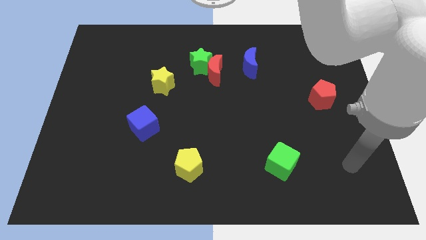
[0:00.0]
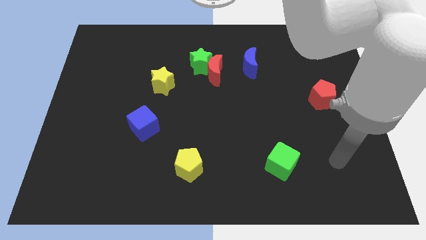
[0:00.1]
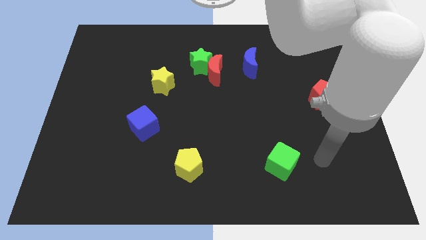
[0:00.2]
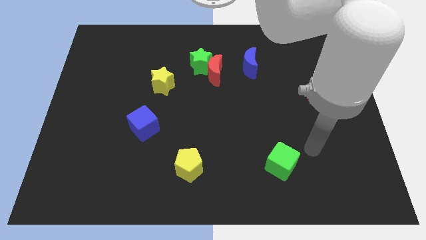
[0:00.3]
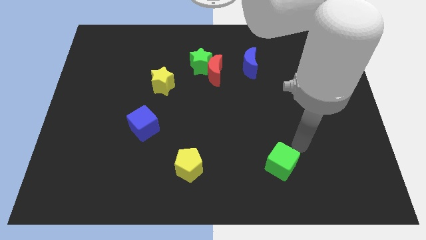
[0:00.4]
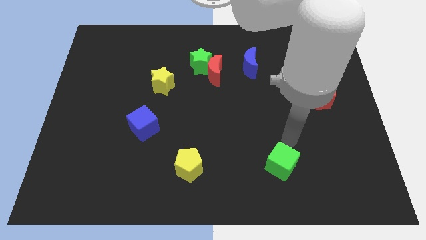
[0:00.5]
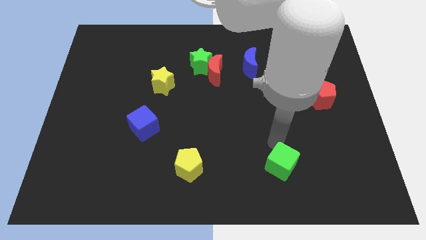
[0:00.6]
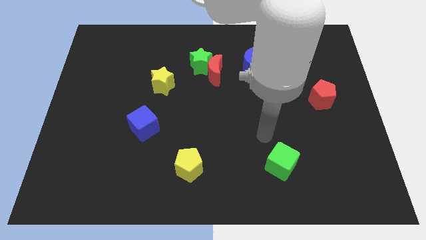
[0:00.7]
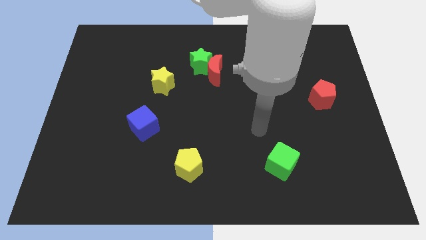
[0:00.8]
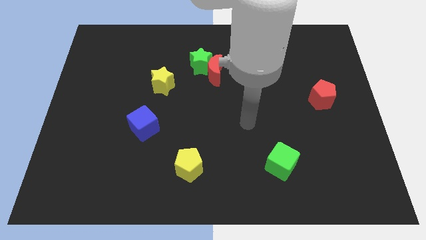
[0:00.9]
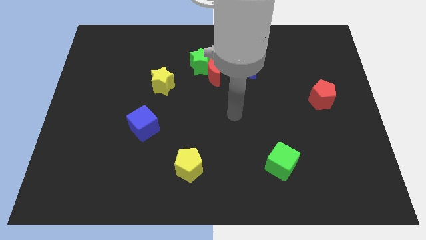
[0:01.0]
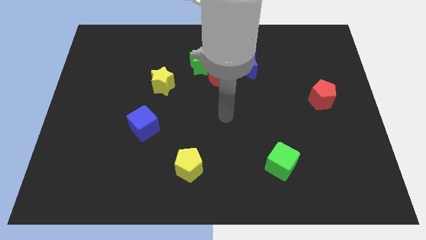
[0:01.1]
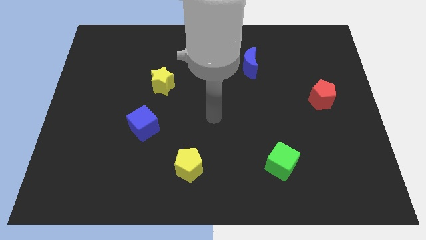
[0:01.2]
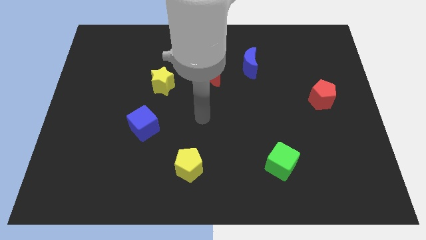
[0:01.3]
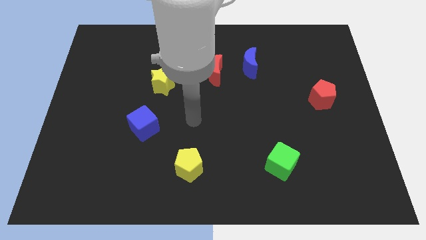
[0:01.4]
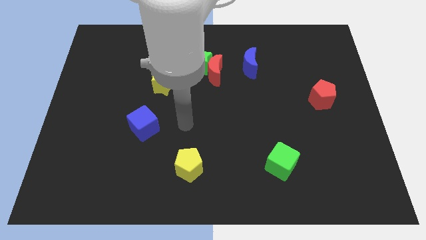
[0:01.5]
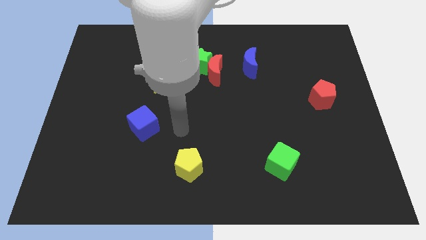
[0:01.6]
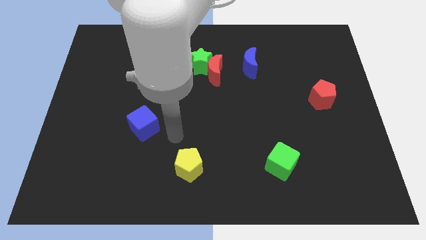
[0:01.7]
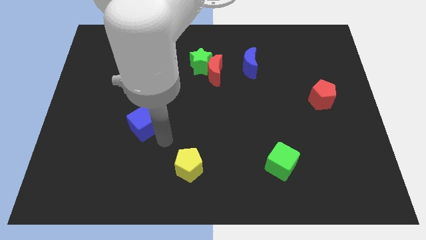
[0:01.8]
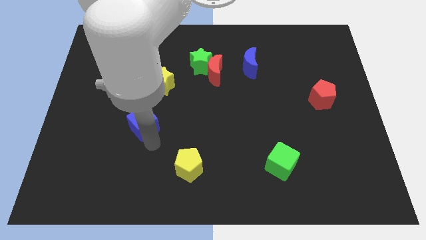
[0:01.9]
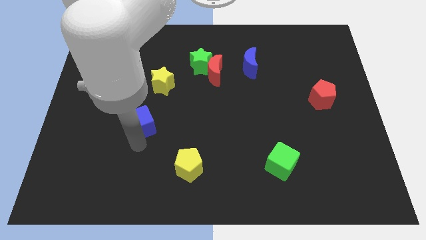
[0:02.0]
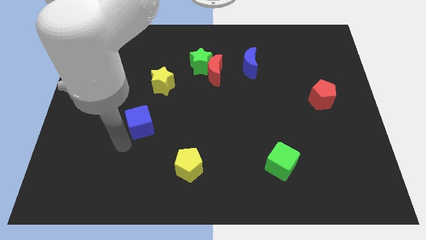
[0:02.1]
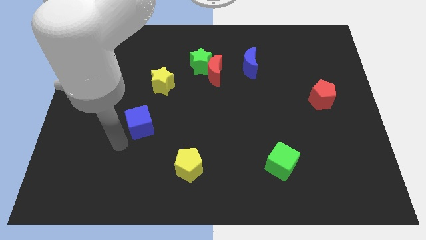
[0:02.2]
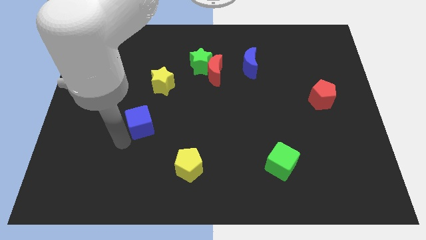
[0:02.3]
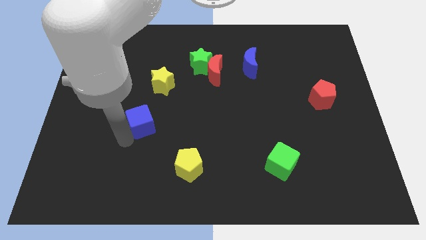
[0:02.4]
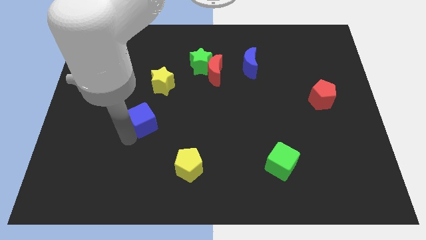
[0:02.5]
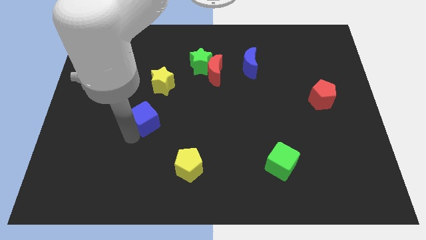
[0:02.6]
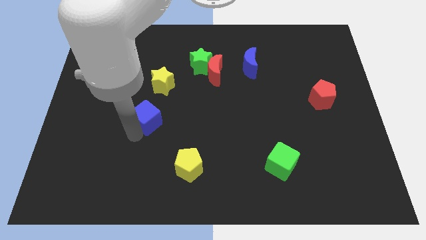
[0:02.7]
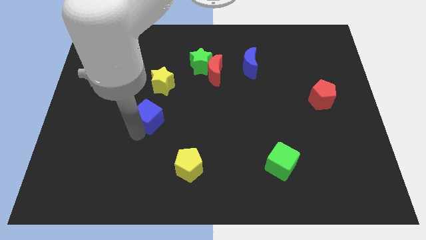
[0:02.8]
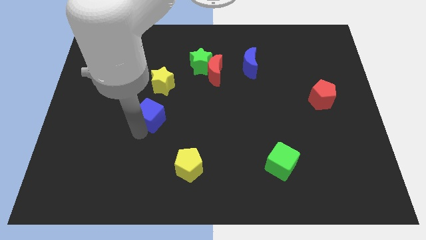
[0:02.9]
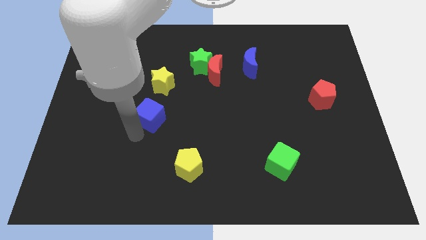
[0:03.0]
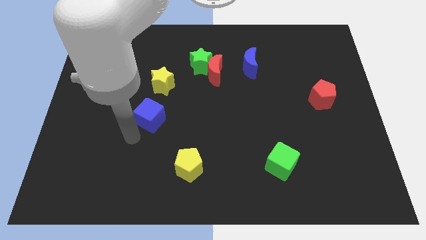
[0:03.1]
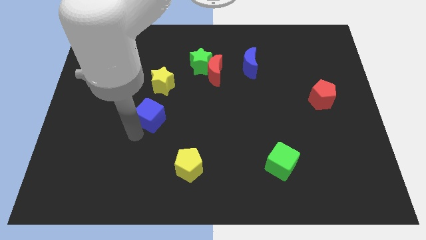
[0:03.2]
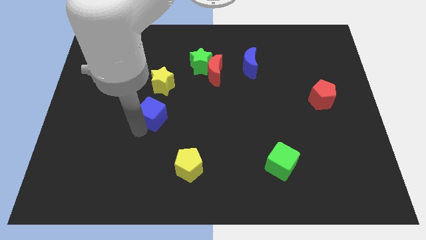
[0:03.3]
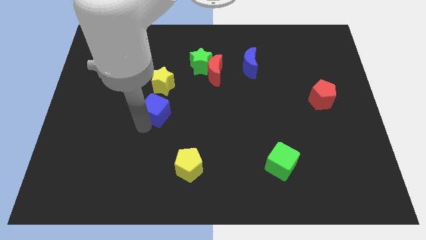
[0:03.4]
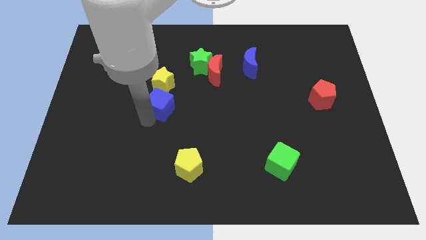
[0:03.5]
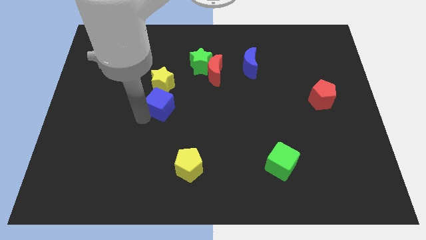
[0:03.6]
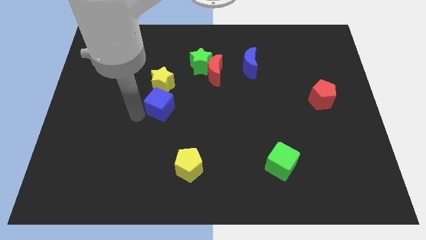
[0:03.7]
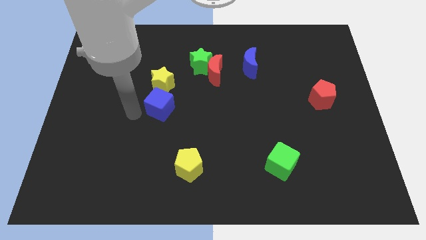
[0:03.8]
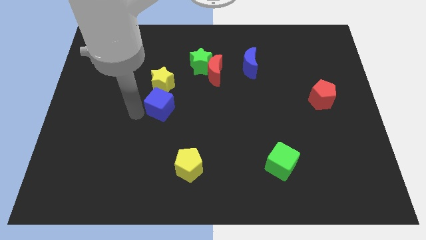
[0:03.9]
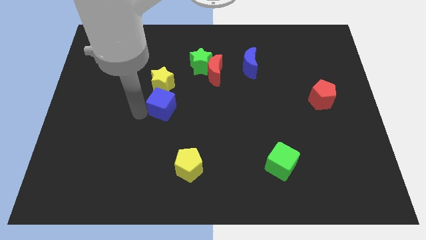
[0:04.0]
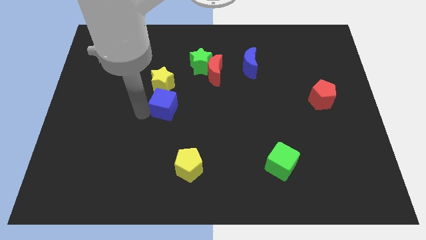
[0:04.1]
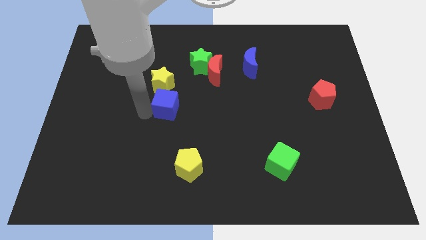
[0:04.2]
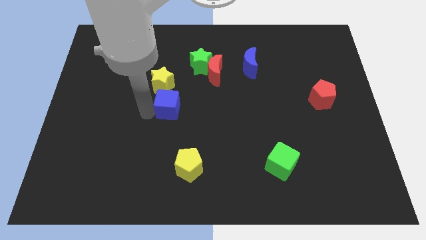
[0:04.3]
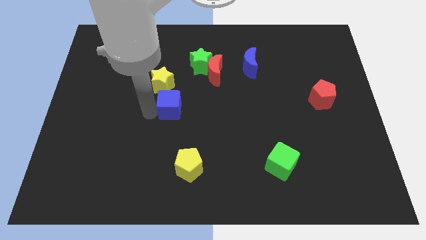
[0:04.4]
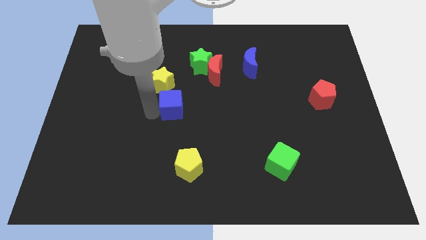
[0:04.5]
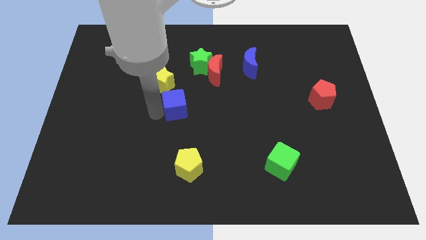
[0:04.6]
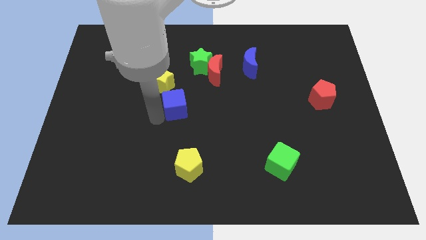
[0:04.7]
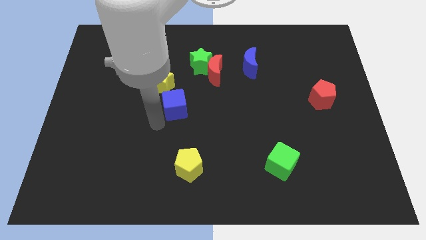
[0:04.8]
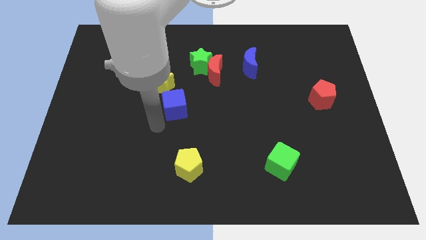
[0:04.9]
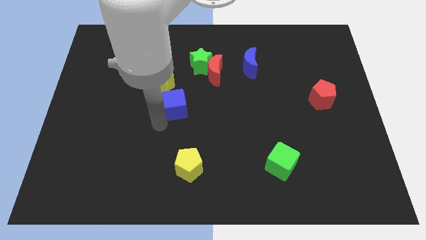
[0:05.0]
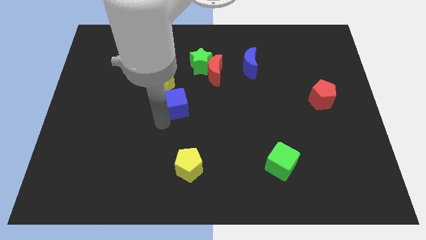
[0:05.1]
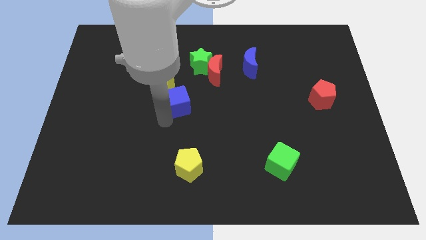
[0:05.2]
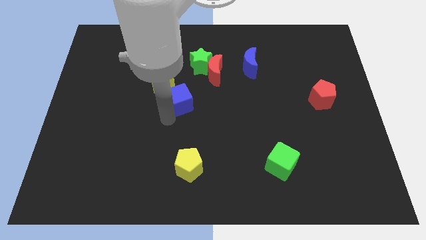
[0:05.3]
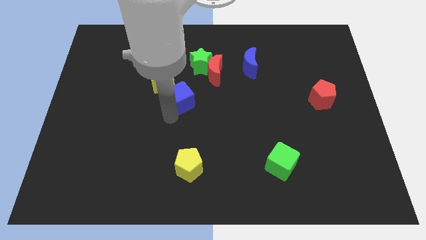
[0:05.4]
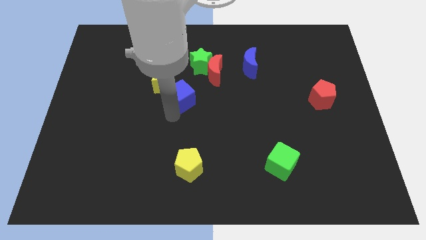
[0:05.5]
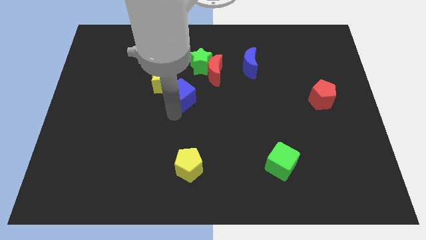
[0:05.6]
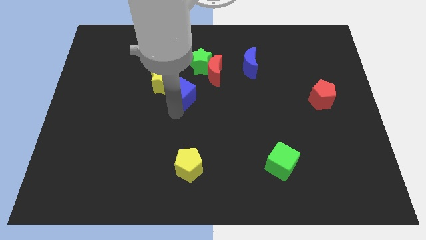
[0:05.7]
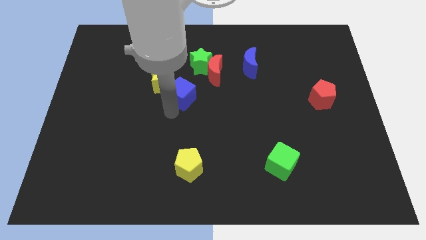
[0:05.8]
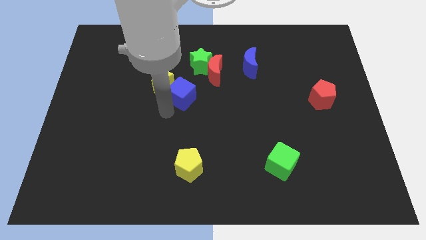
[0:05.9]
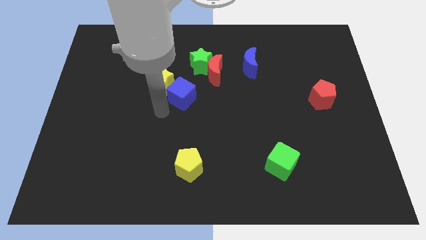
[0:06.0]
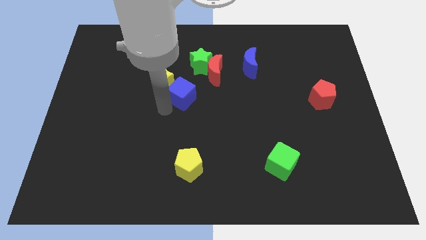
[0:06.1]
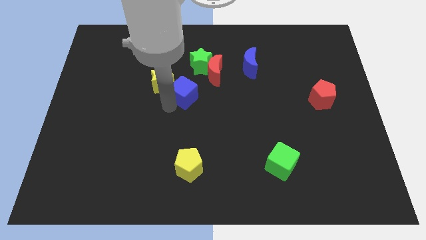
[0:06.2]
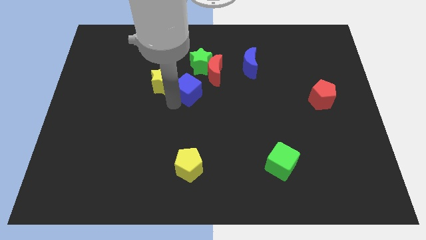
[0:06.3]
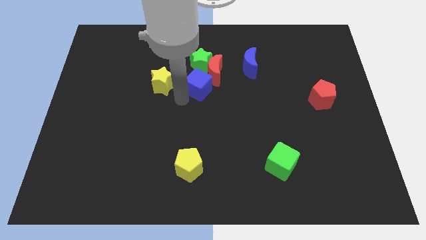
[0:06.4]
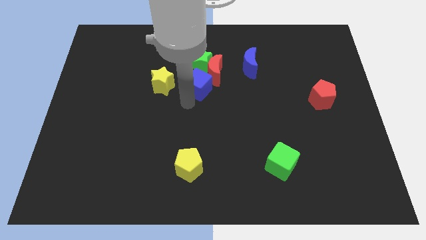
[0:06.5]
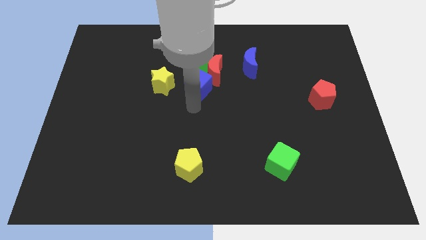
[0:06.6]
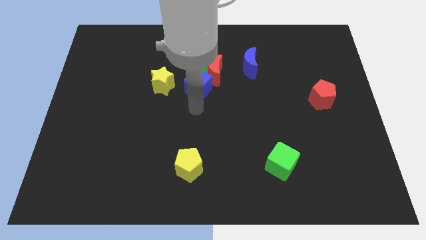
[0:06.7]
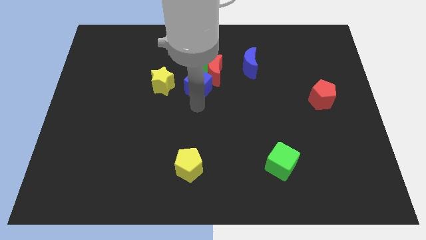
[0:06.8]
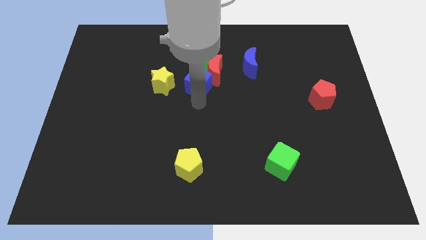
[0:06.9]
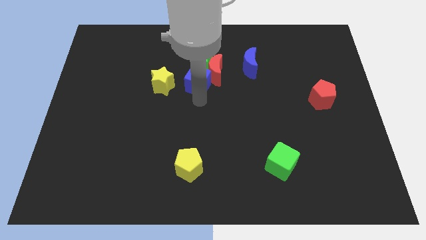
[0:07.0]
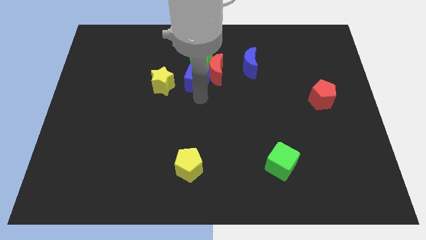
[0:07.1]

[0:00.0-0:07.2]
push the blue cube next to the green star
